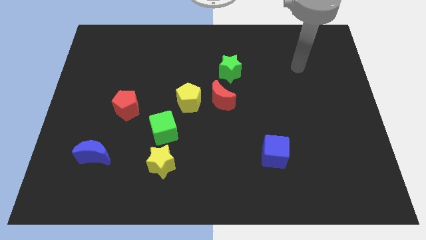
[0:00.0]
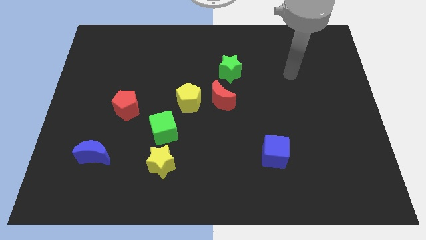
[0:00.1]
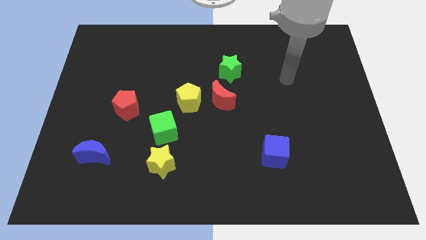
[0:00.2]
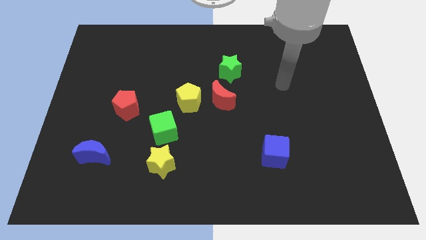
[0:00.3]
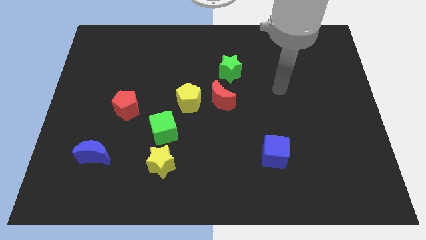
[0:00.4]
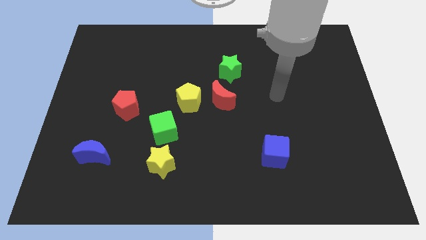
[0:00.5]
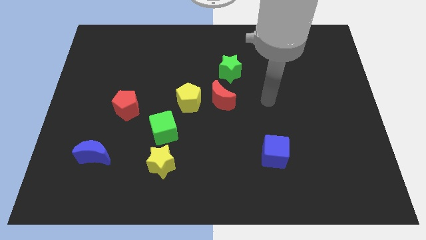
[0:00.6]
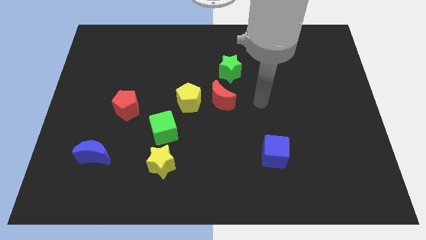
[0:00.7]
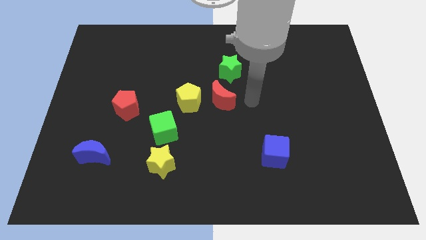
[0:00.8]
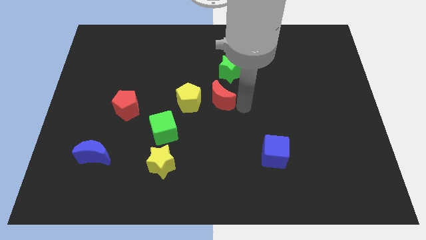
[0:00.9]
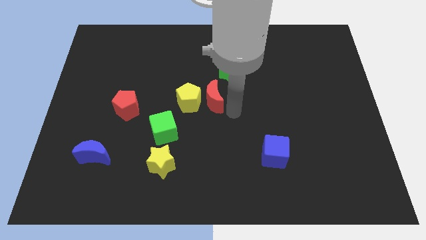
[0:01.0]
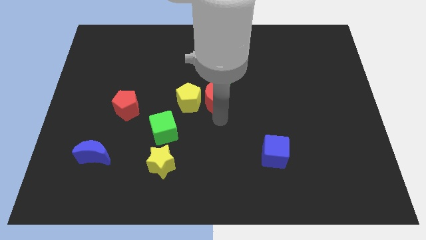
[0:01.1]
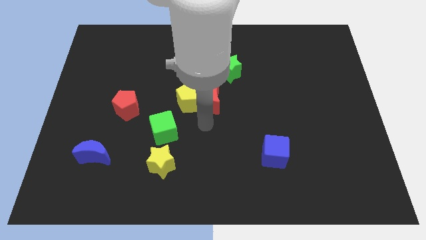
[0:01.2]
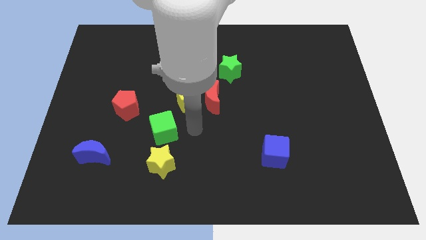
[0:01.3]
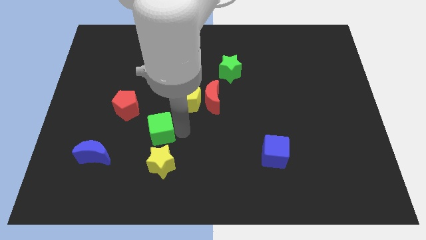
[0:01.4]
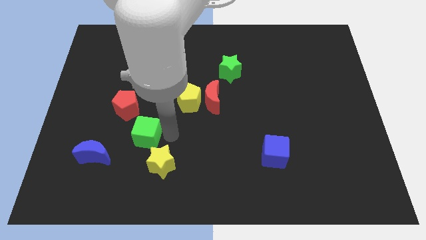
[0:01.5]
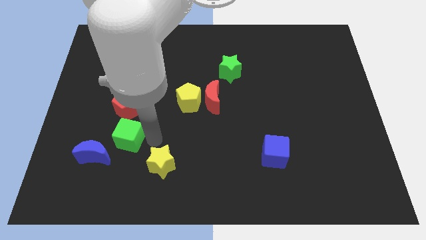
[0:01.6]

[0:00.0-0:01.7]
pull the yellow star apart from the green cube

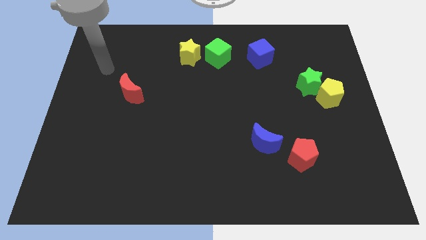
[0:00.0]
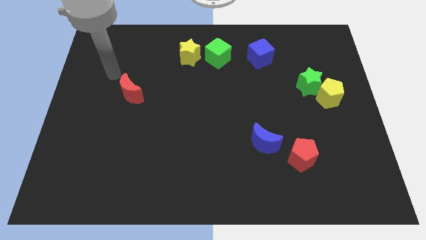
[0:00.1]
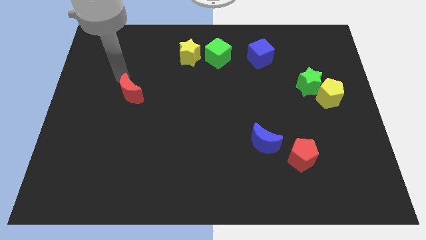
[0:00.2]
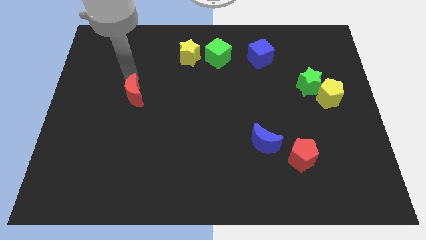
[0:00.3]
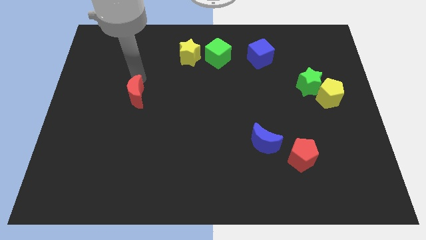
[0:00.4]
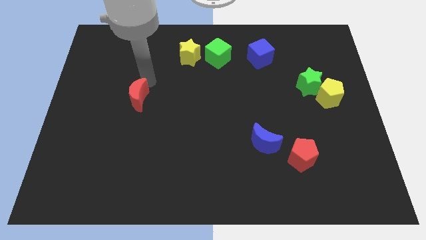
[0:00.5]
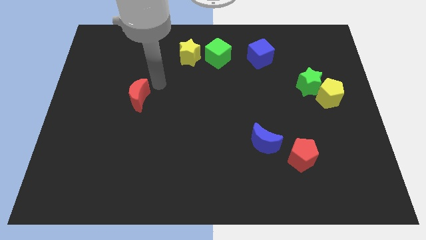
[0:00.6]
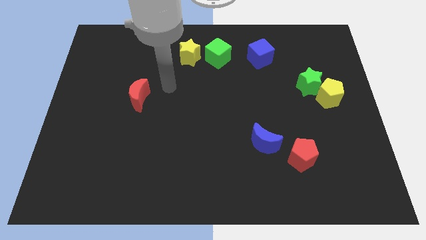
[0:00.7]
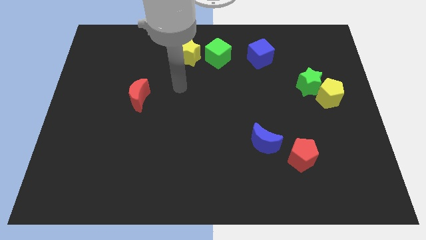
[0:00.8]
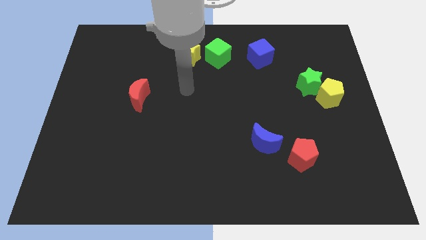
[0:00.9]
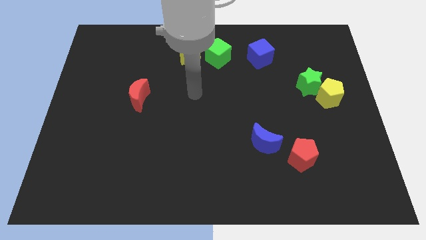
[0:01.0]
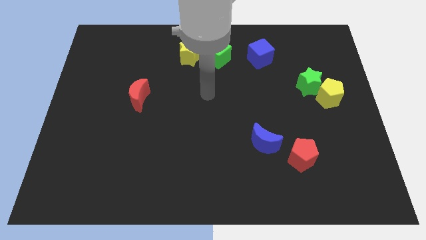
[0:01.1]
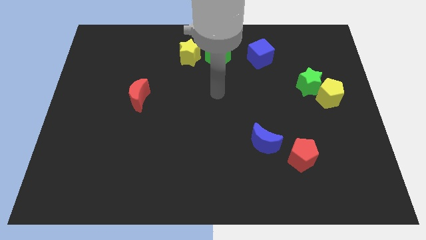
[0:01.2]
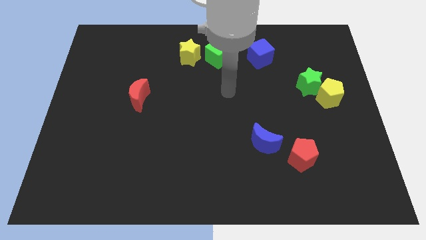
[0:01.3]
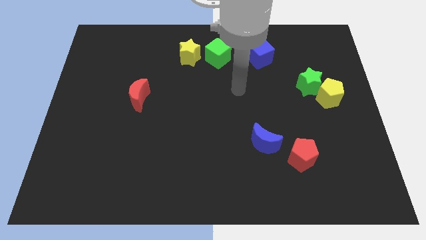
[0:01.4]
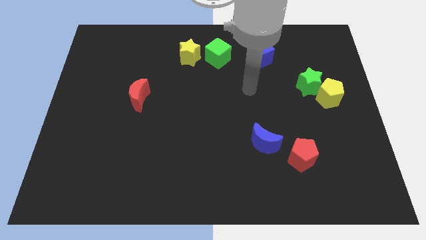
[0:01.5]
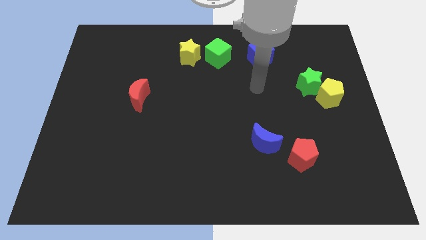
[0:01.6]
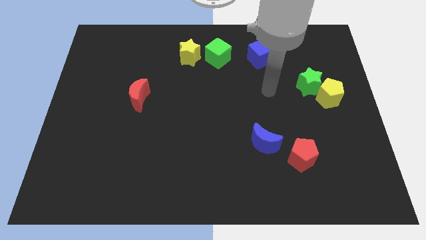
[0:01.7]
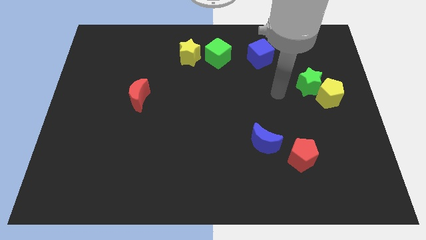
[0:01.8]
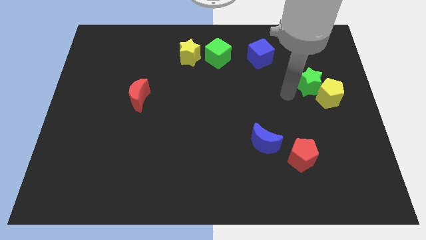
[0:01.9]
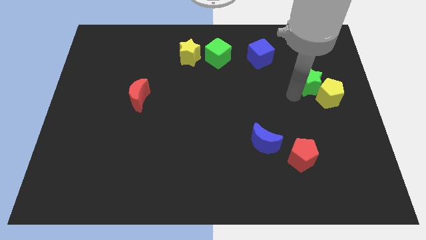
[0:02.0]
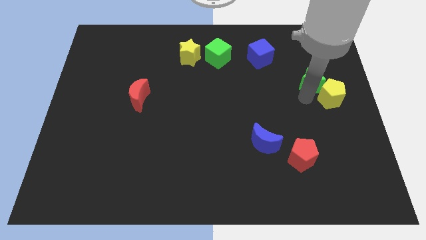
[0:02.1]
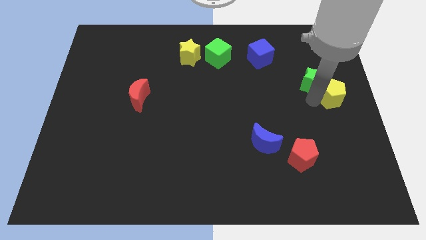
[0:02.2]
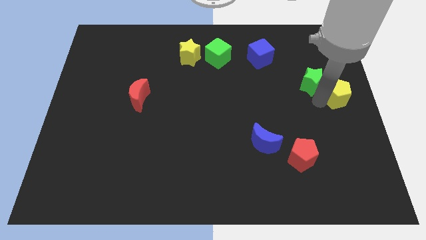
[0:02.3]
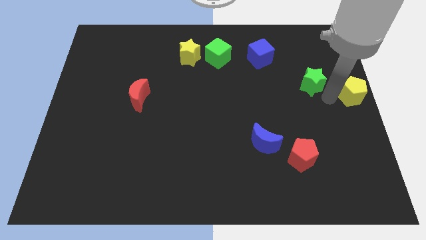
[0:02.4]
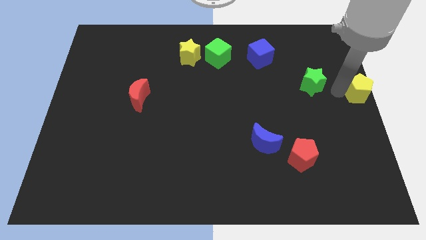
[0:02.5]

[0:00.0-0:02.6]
separate the green star from the yellow pentagon

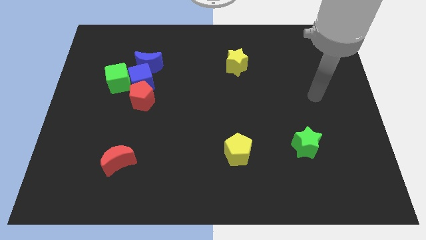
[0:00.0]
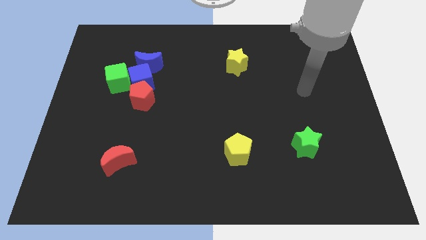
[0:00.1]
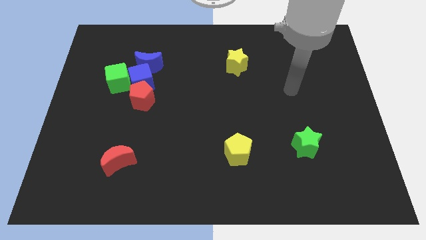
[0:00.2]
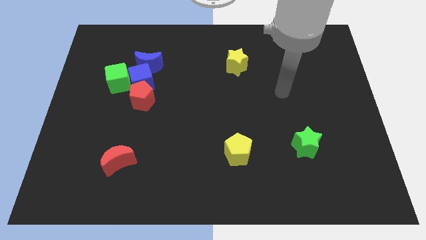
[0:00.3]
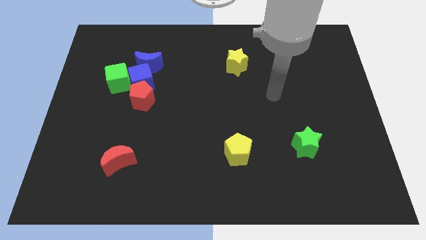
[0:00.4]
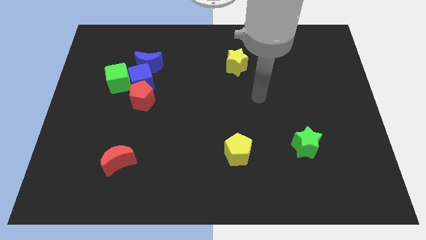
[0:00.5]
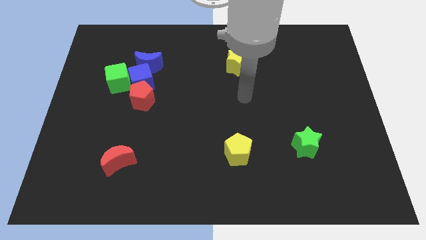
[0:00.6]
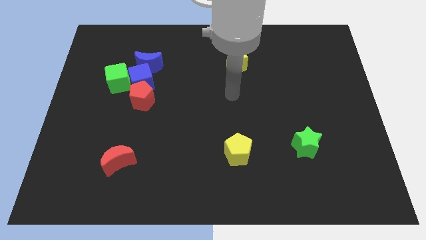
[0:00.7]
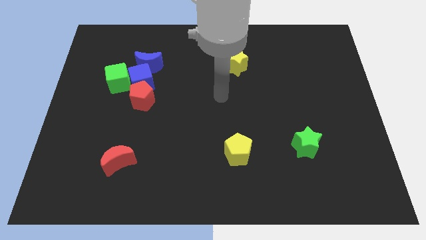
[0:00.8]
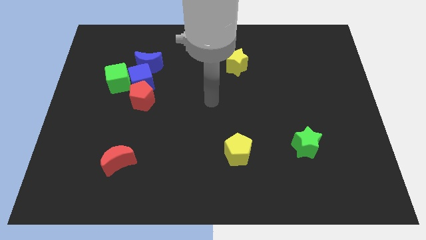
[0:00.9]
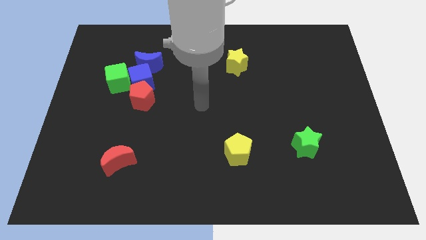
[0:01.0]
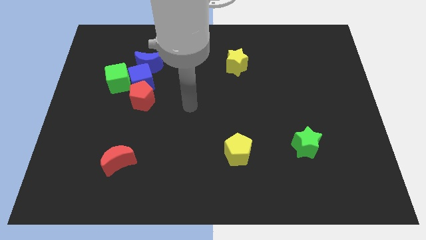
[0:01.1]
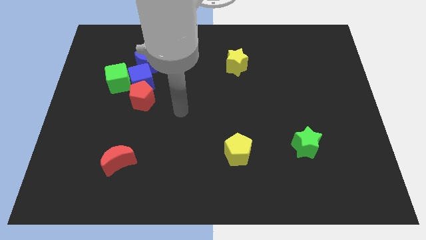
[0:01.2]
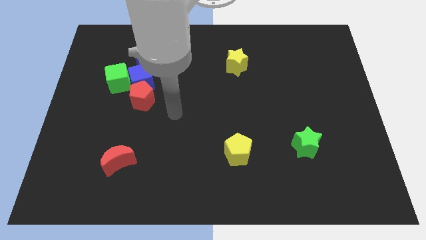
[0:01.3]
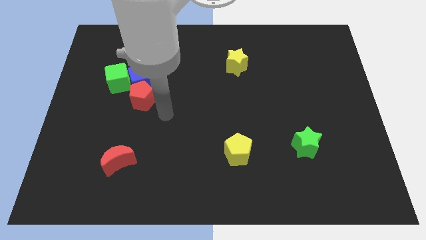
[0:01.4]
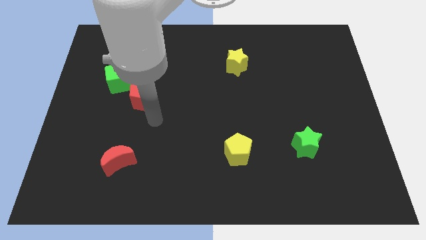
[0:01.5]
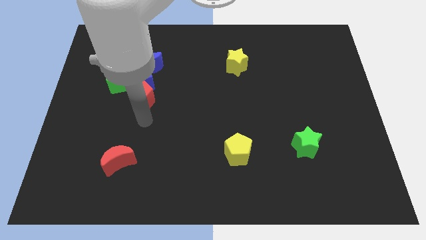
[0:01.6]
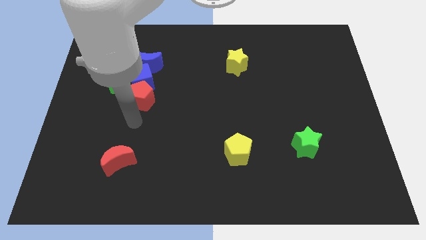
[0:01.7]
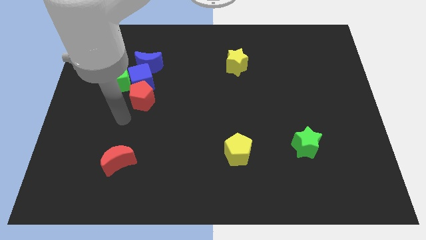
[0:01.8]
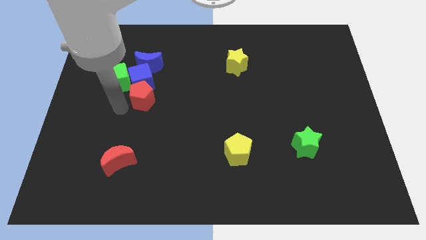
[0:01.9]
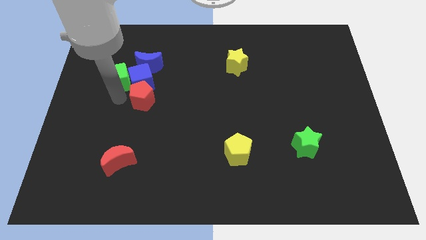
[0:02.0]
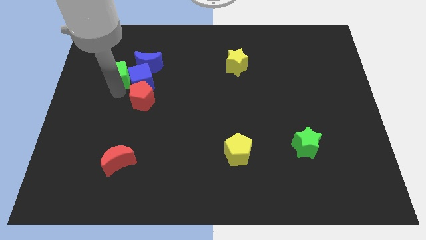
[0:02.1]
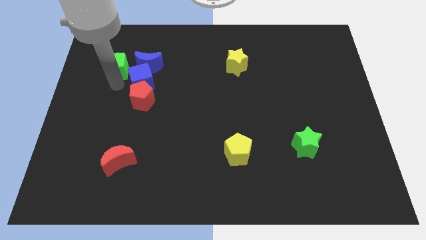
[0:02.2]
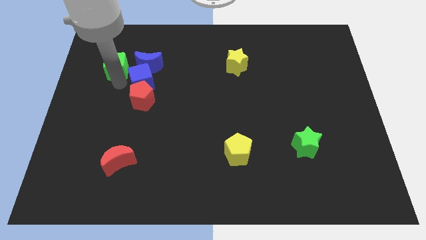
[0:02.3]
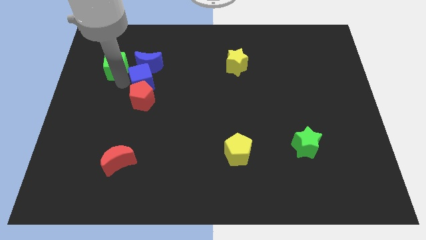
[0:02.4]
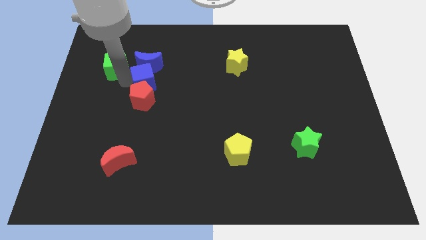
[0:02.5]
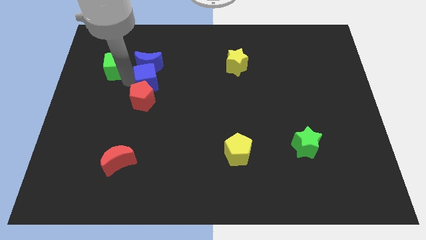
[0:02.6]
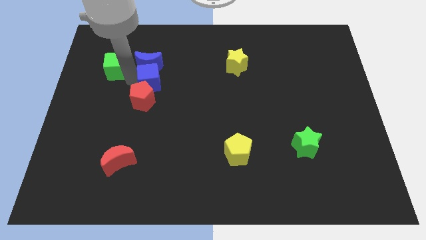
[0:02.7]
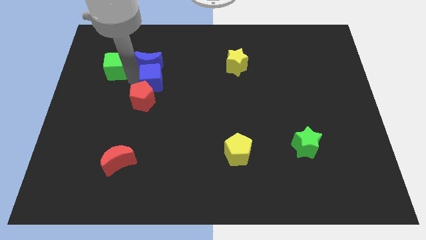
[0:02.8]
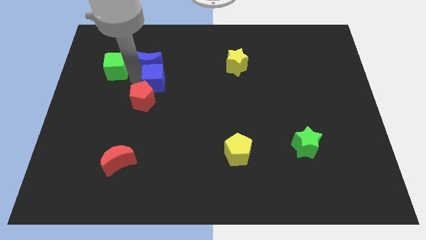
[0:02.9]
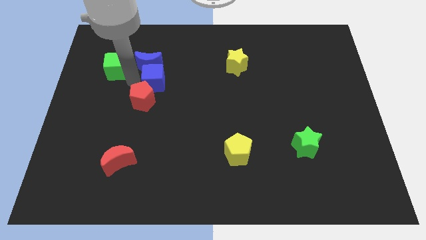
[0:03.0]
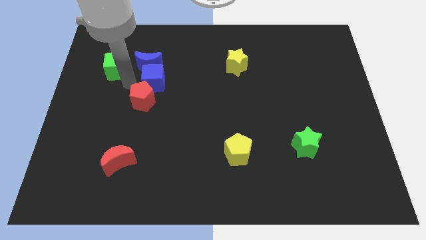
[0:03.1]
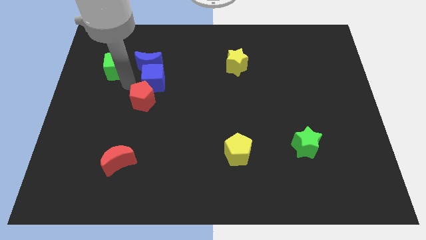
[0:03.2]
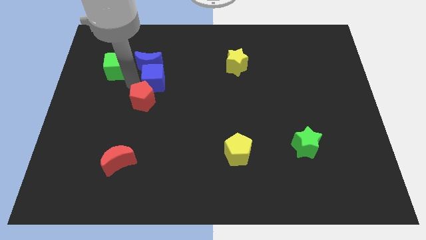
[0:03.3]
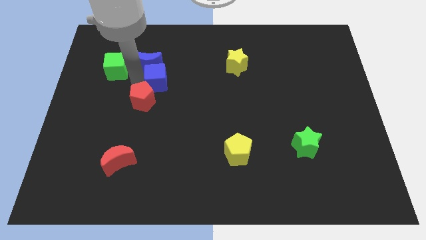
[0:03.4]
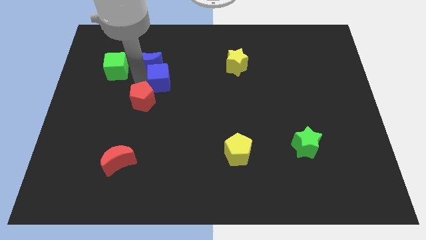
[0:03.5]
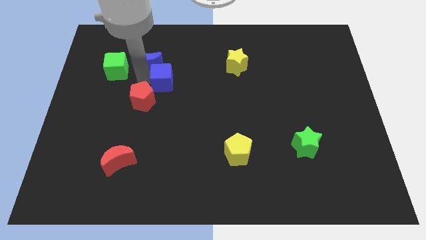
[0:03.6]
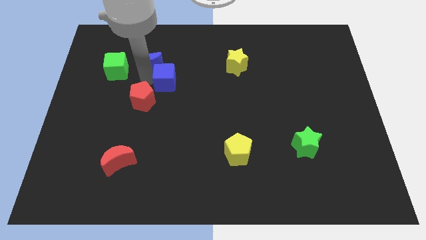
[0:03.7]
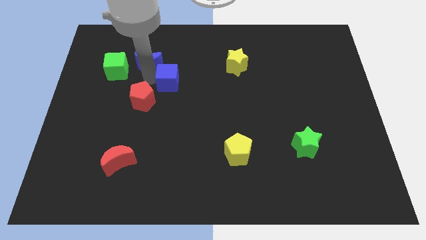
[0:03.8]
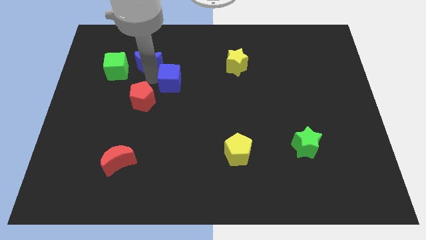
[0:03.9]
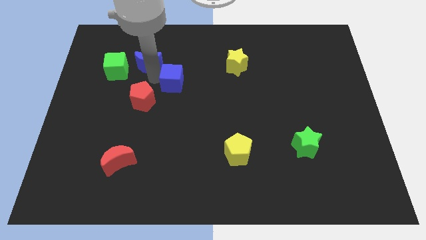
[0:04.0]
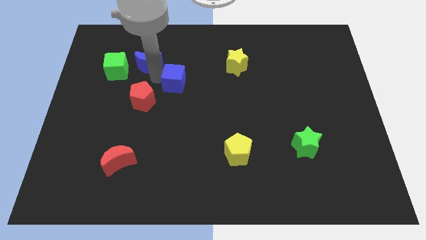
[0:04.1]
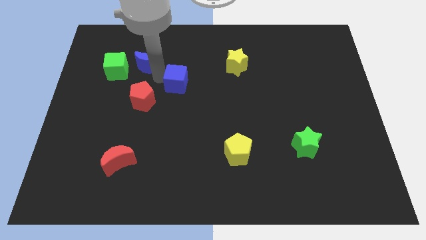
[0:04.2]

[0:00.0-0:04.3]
pull the blue cube apart from the group of blocks

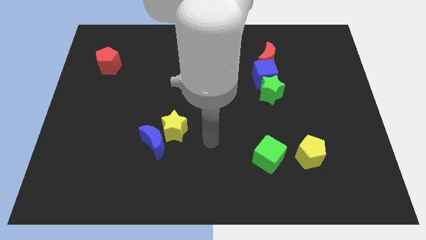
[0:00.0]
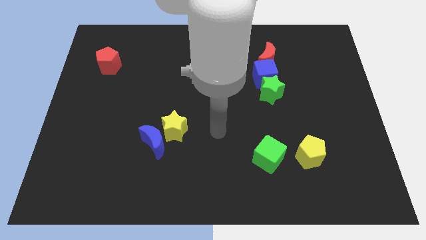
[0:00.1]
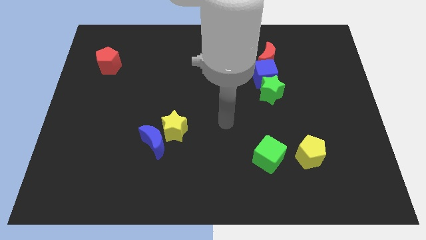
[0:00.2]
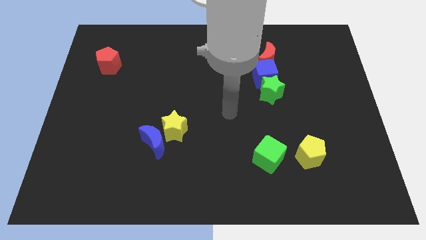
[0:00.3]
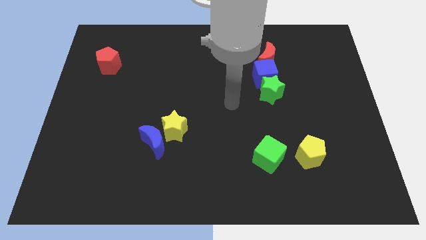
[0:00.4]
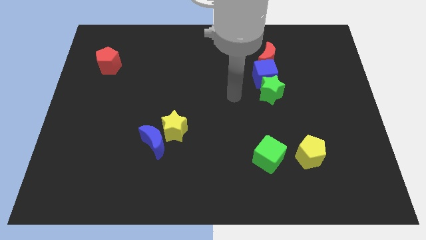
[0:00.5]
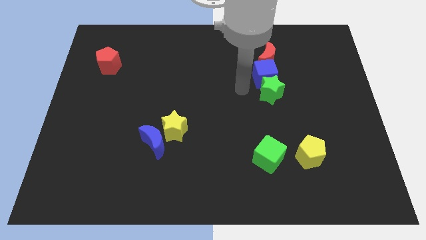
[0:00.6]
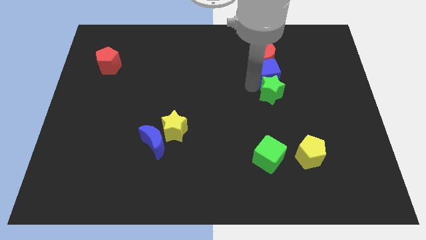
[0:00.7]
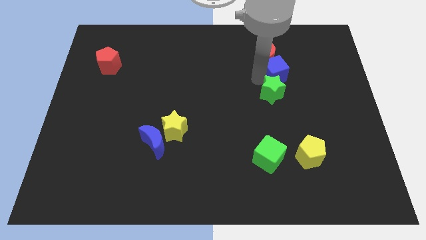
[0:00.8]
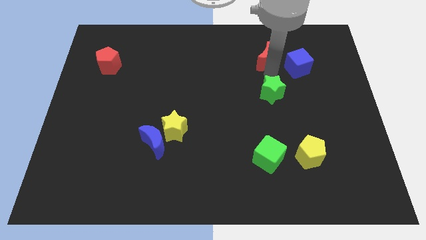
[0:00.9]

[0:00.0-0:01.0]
separate the green star from the blue cube
